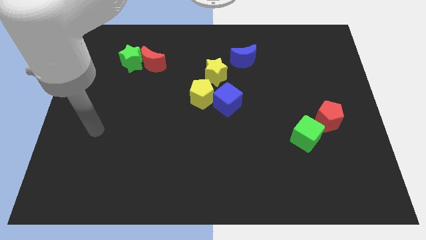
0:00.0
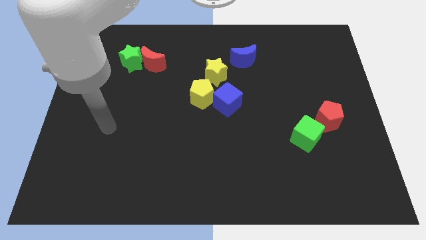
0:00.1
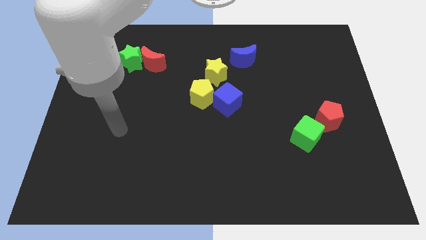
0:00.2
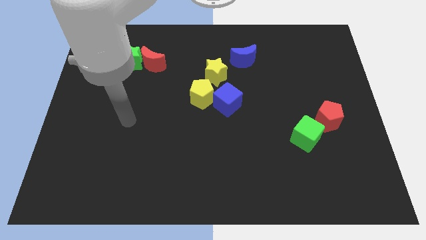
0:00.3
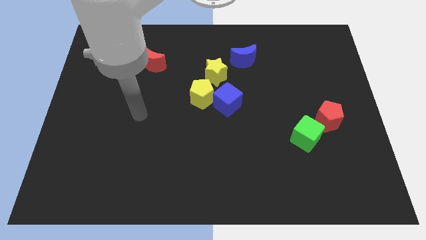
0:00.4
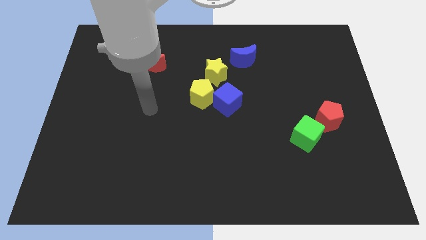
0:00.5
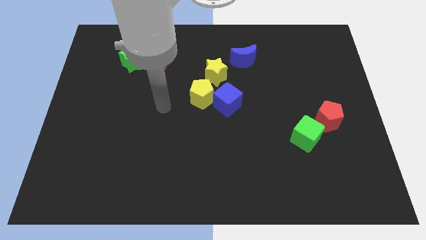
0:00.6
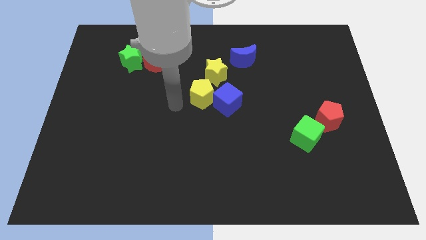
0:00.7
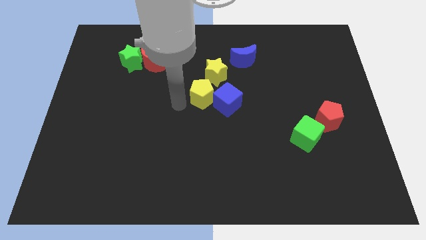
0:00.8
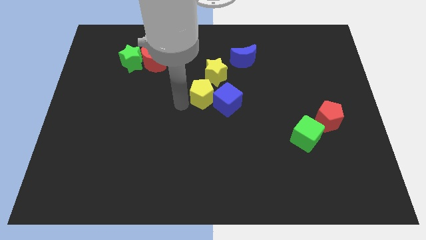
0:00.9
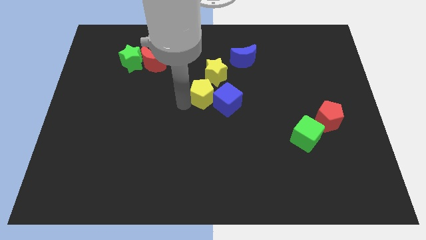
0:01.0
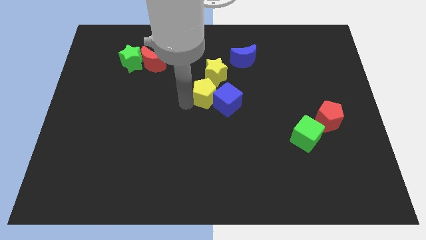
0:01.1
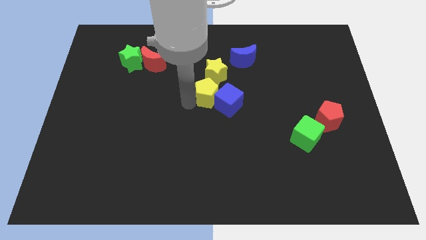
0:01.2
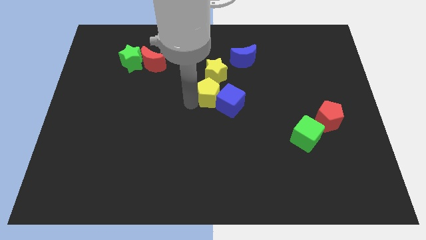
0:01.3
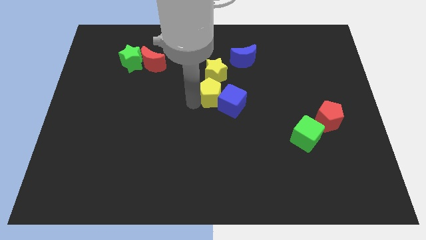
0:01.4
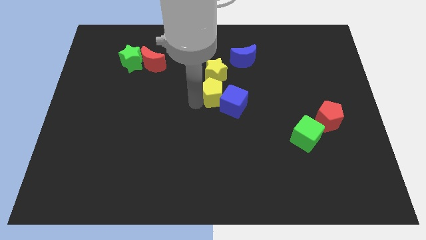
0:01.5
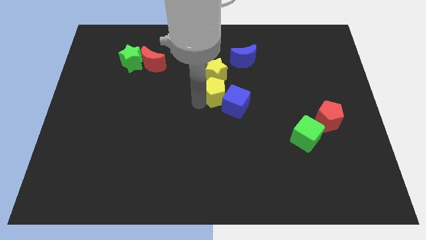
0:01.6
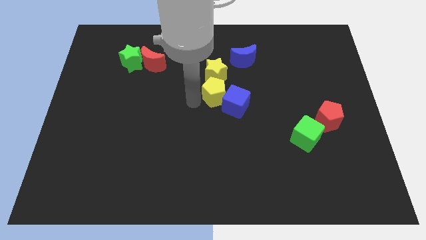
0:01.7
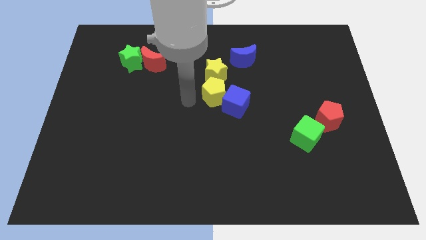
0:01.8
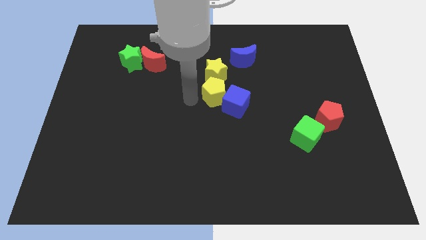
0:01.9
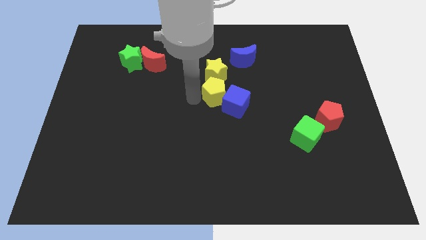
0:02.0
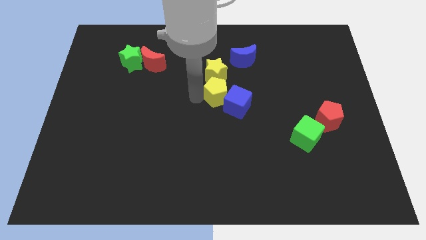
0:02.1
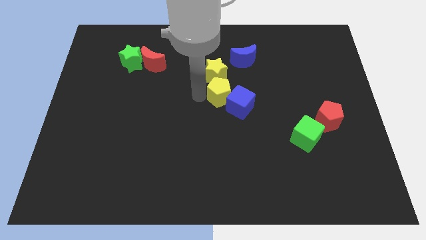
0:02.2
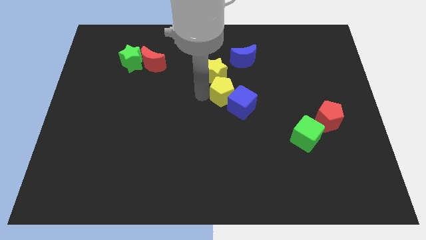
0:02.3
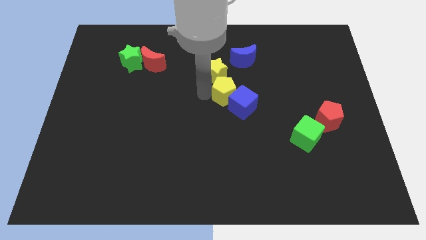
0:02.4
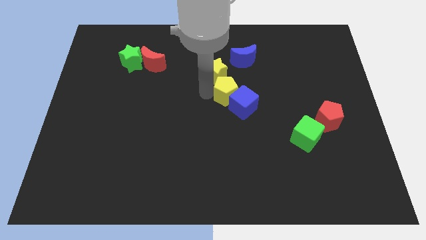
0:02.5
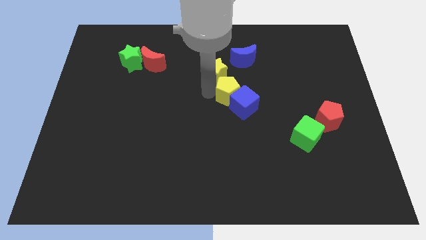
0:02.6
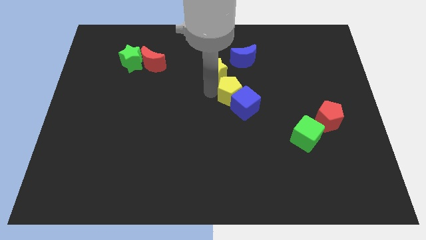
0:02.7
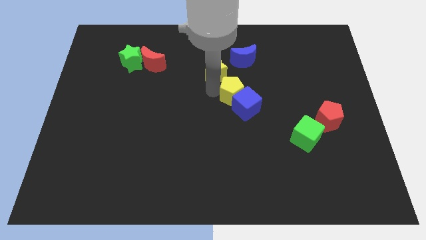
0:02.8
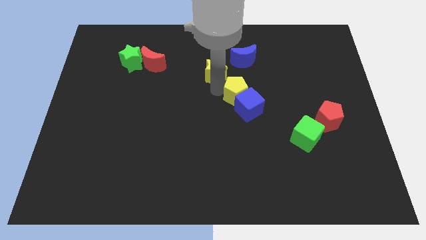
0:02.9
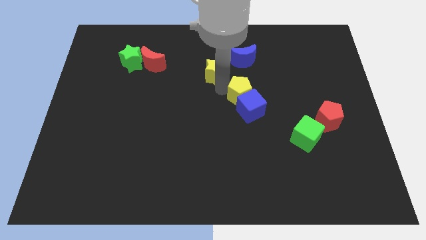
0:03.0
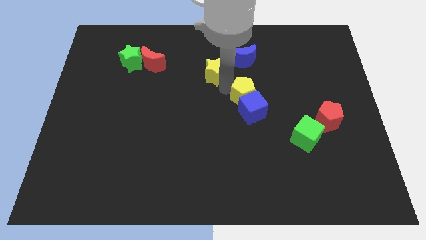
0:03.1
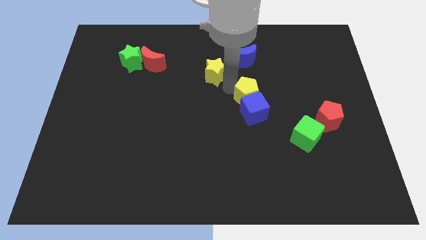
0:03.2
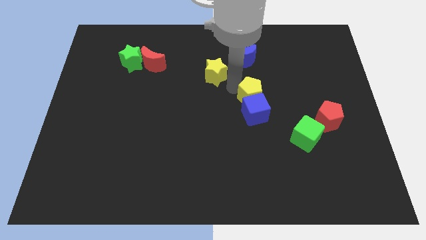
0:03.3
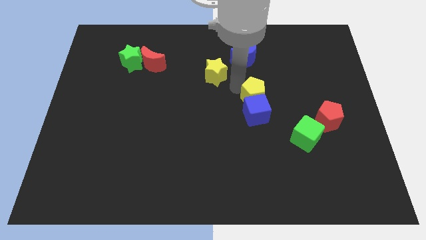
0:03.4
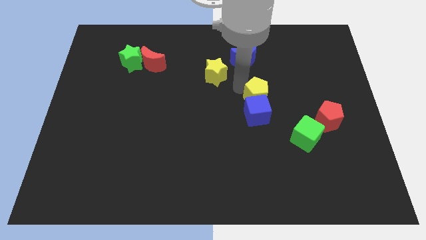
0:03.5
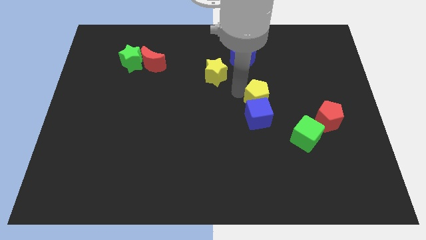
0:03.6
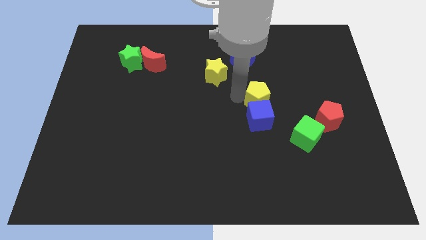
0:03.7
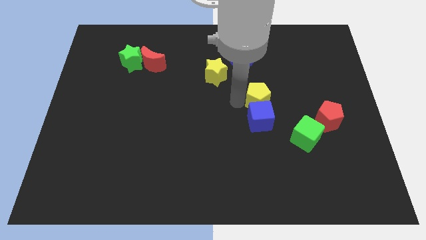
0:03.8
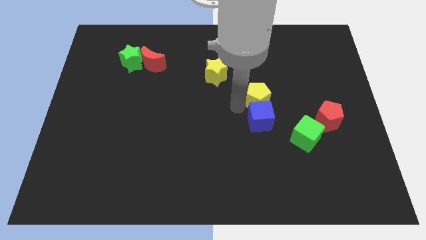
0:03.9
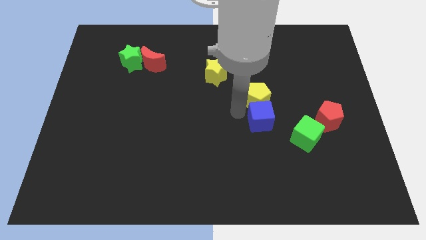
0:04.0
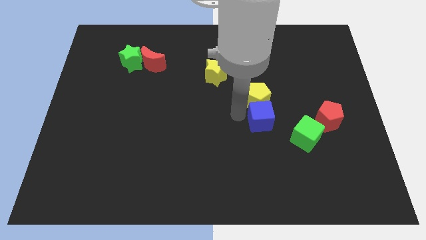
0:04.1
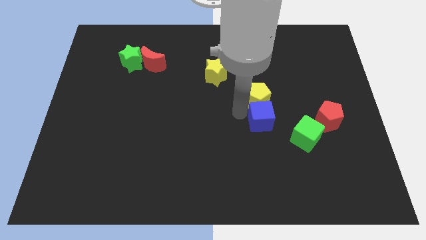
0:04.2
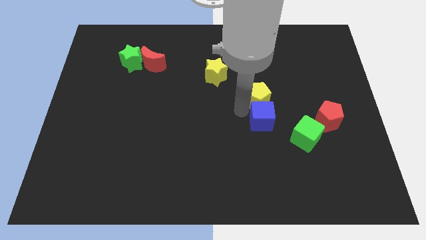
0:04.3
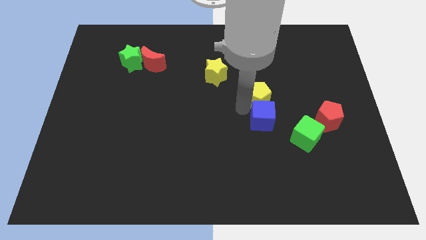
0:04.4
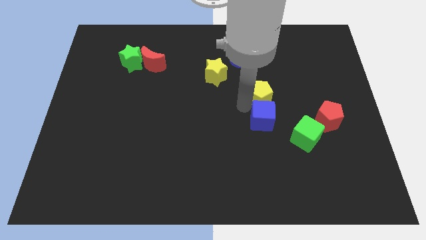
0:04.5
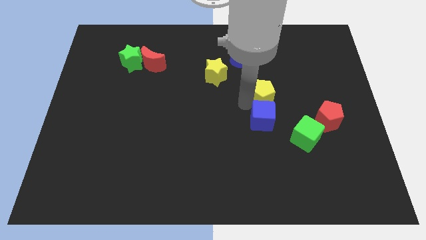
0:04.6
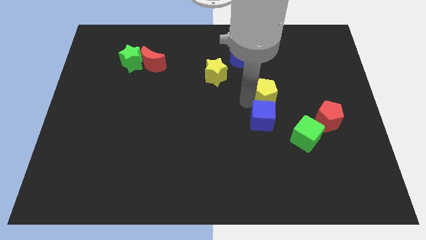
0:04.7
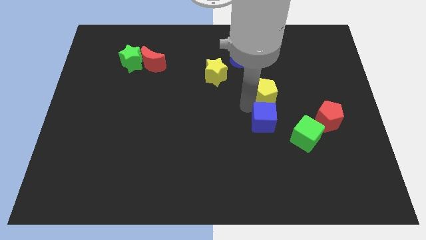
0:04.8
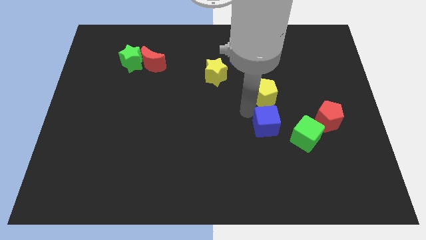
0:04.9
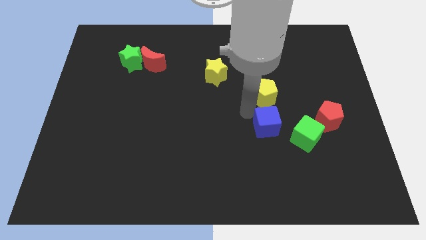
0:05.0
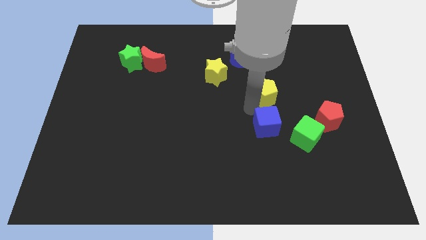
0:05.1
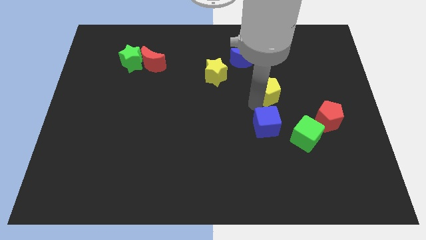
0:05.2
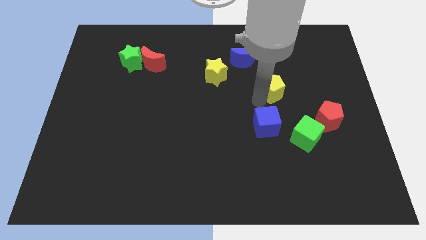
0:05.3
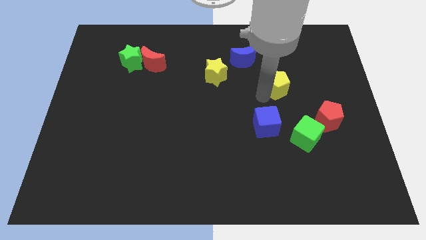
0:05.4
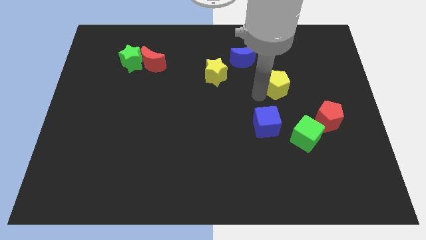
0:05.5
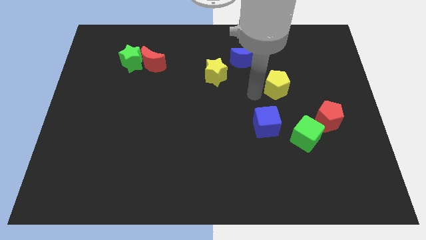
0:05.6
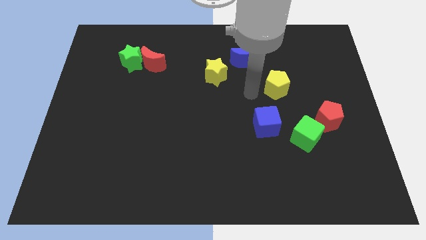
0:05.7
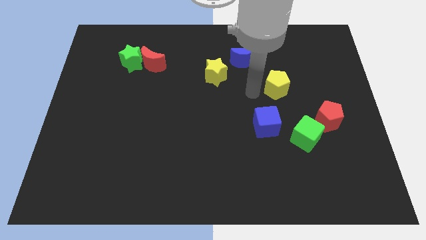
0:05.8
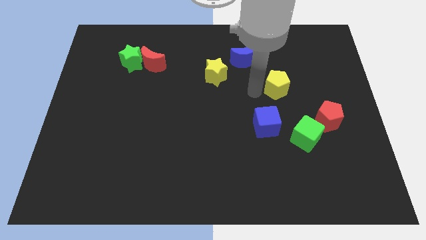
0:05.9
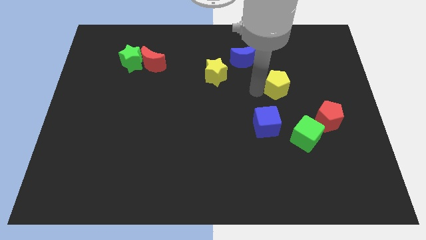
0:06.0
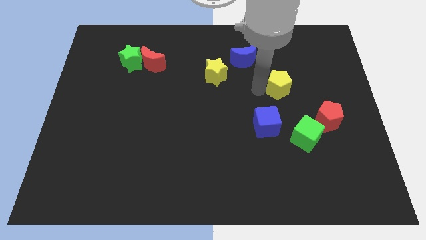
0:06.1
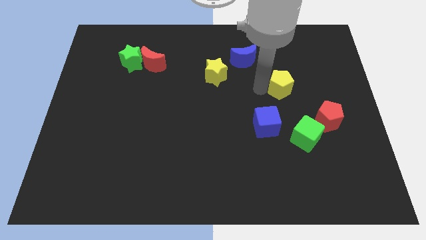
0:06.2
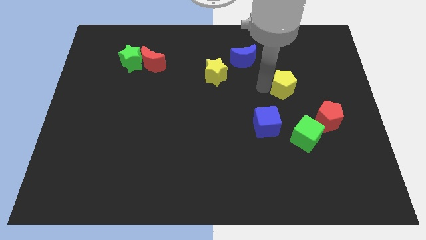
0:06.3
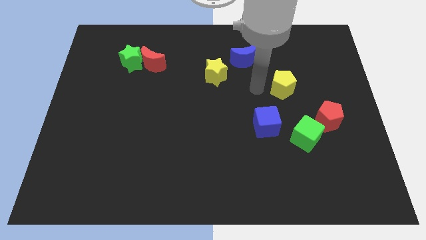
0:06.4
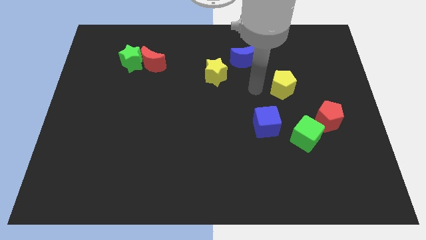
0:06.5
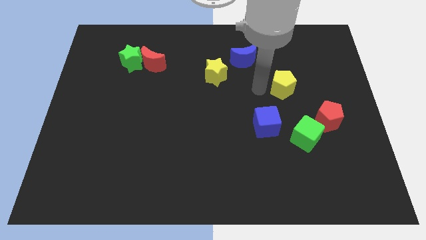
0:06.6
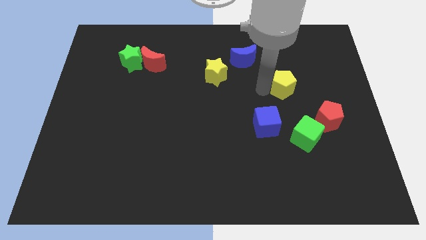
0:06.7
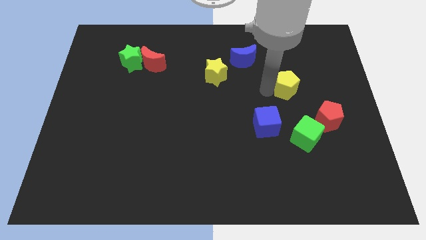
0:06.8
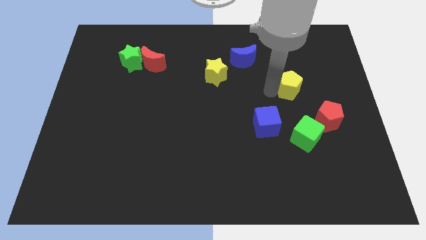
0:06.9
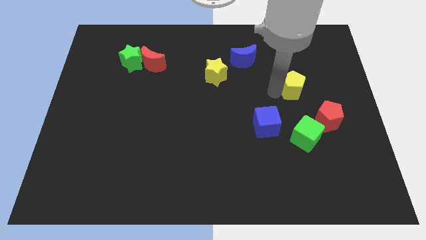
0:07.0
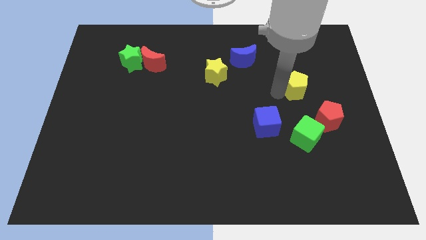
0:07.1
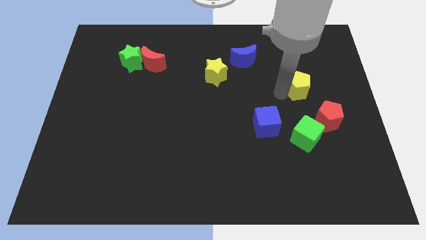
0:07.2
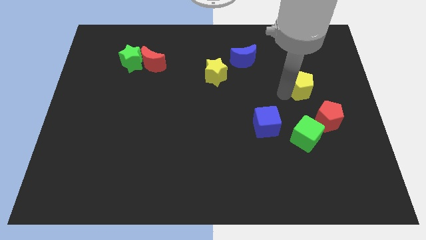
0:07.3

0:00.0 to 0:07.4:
push the yellow pentagon to the top of the red pentagon
